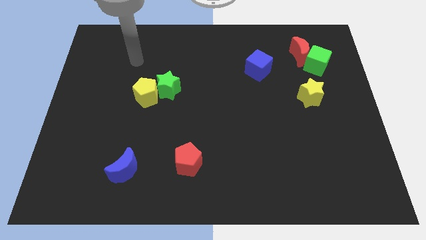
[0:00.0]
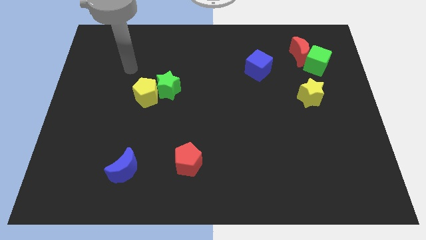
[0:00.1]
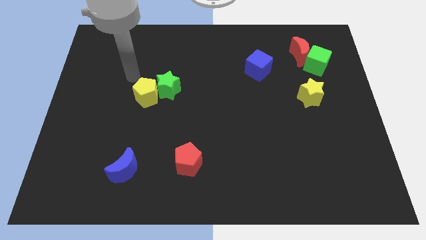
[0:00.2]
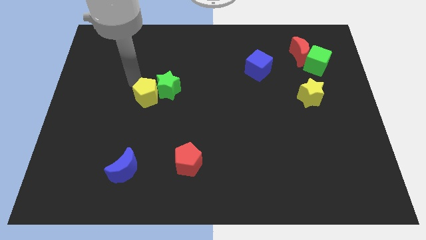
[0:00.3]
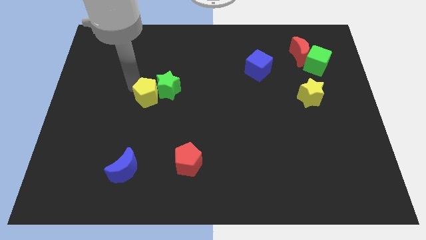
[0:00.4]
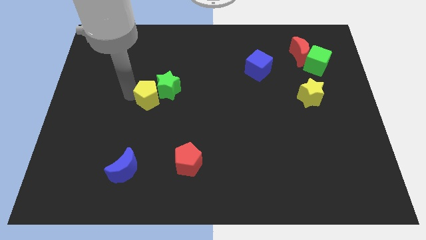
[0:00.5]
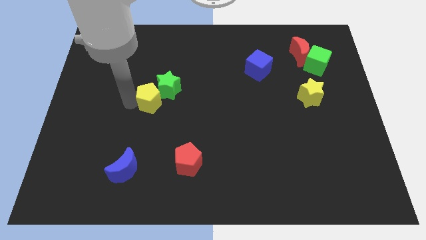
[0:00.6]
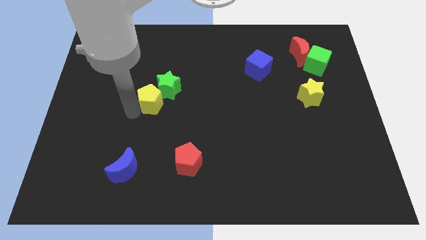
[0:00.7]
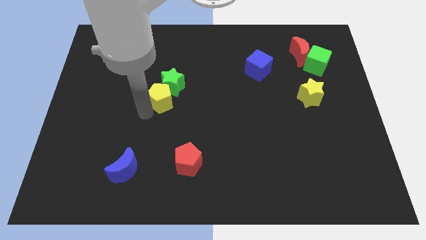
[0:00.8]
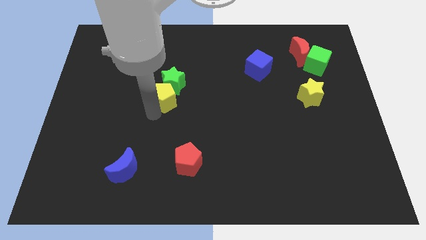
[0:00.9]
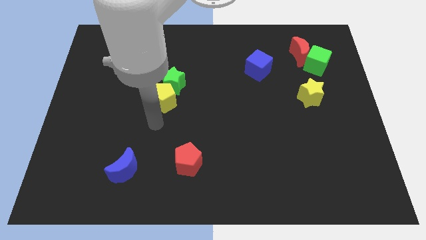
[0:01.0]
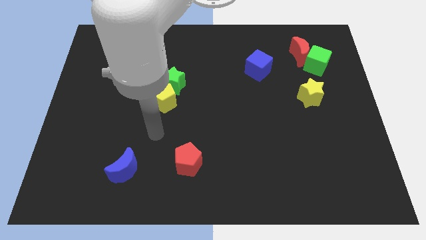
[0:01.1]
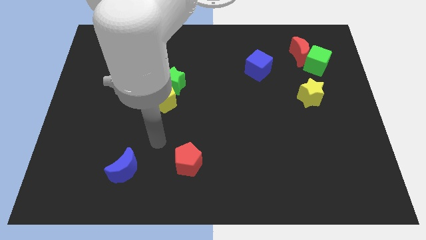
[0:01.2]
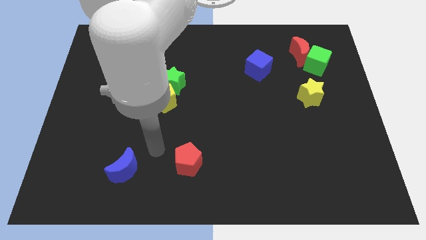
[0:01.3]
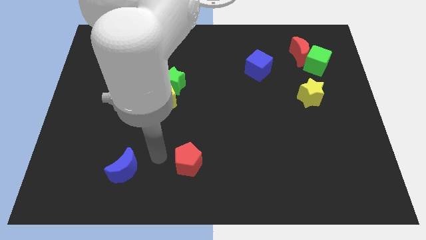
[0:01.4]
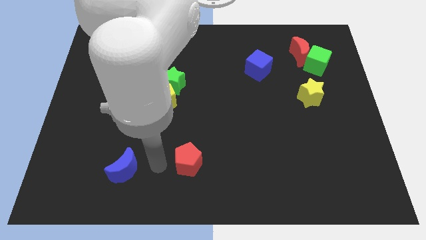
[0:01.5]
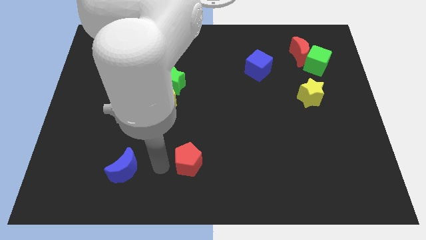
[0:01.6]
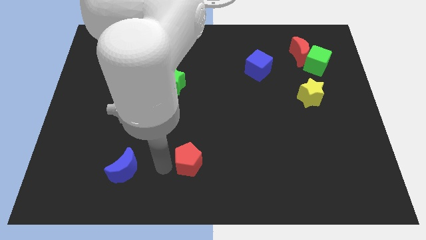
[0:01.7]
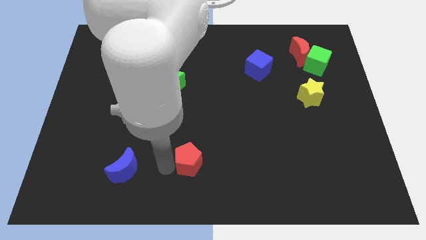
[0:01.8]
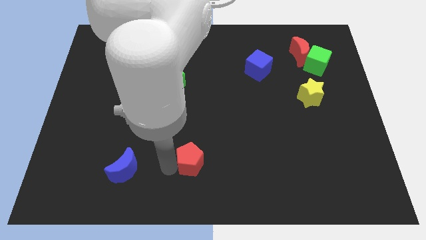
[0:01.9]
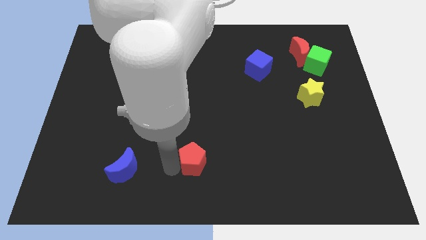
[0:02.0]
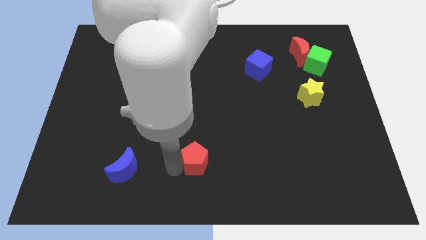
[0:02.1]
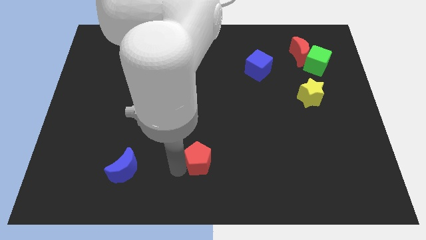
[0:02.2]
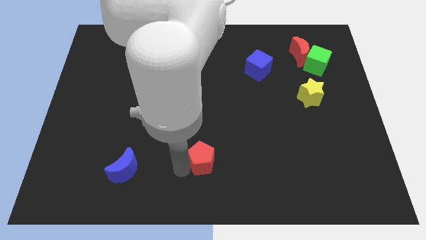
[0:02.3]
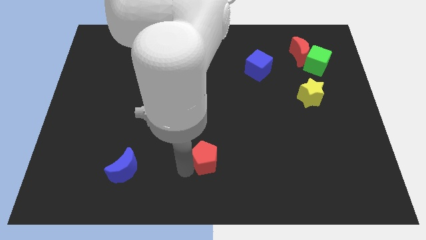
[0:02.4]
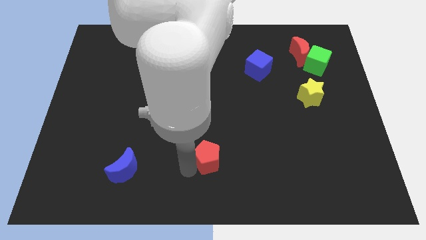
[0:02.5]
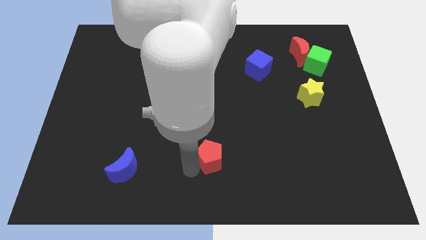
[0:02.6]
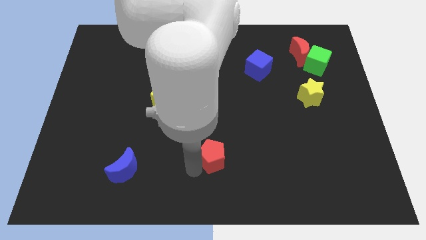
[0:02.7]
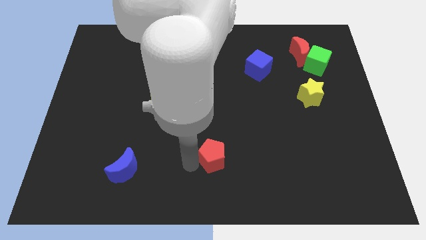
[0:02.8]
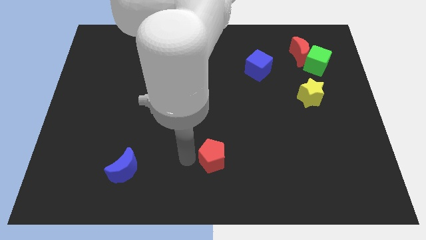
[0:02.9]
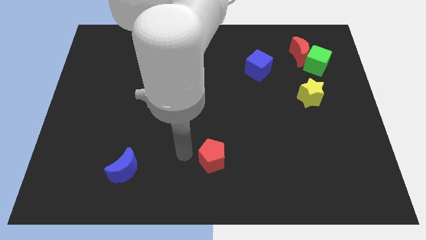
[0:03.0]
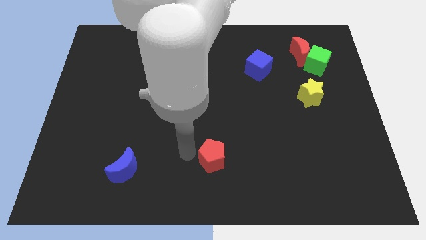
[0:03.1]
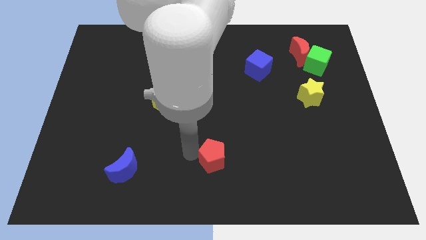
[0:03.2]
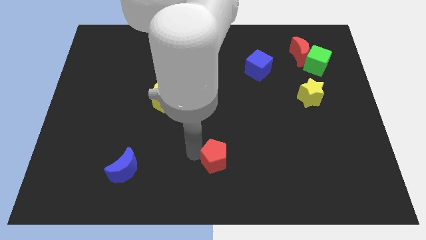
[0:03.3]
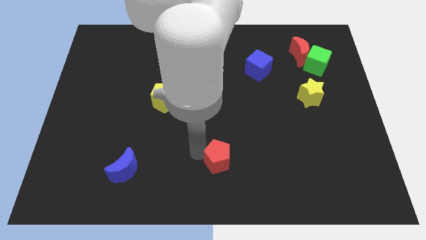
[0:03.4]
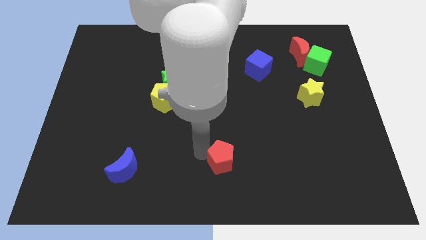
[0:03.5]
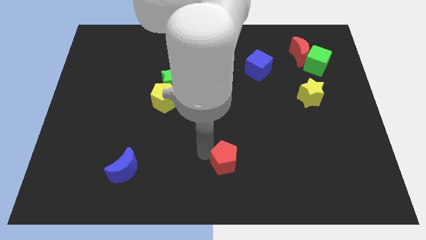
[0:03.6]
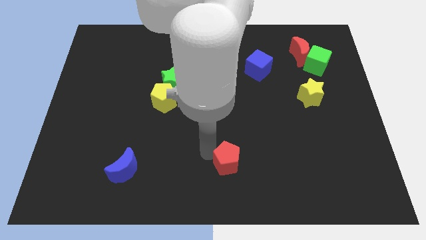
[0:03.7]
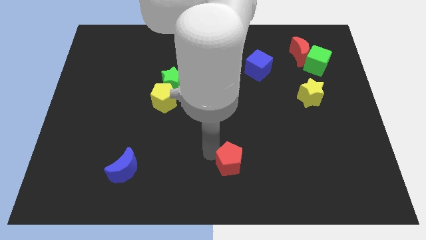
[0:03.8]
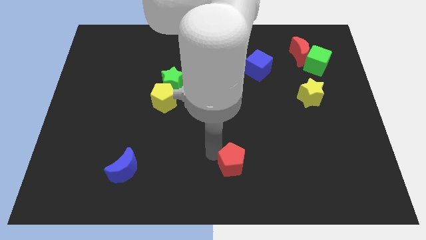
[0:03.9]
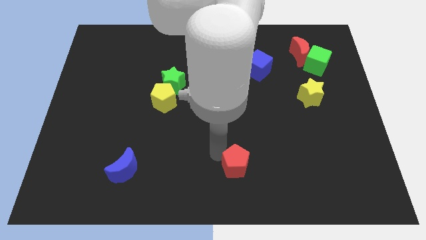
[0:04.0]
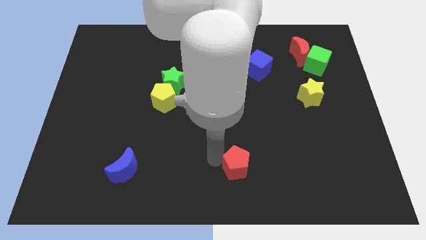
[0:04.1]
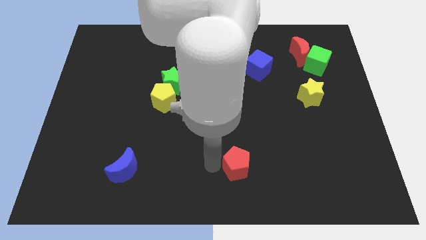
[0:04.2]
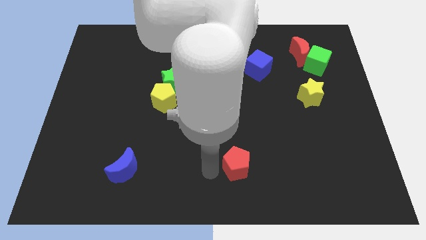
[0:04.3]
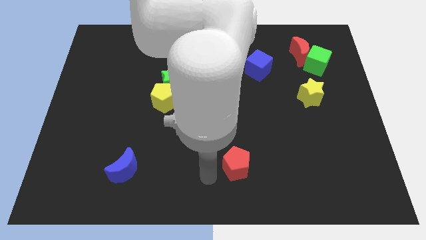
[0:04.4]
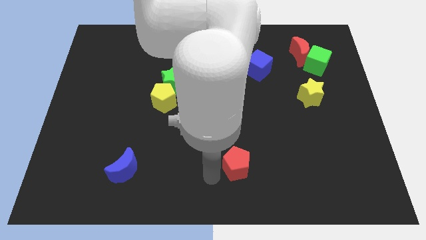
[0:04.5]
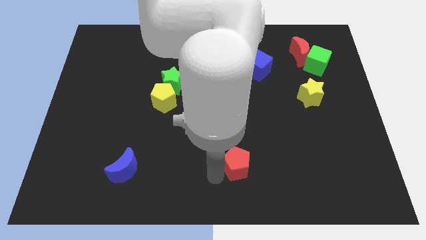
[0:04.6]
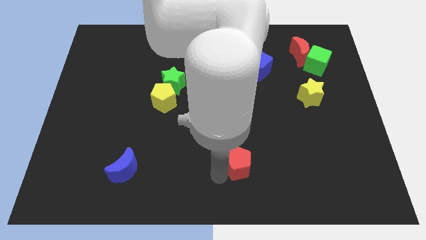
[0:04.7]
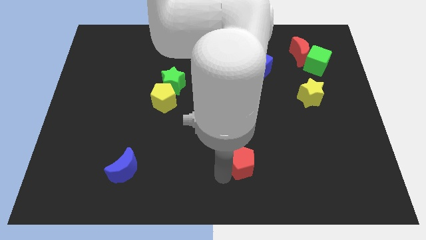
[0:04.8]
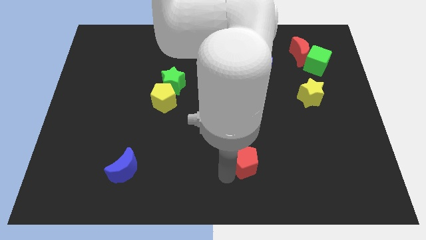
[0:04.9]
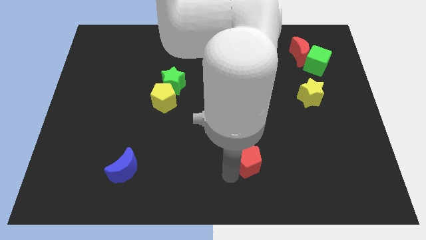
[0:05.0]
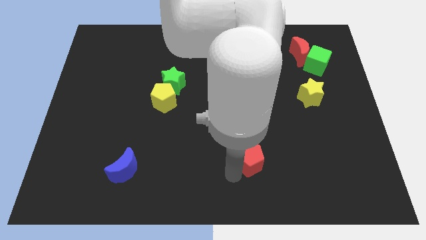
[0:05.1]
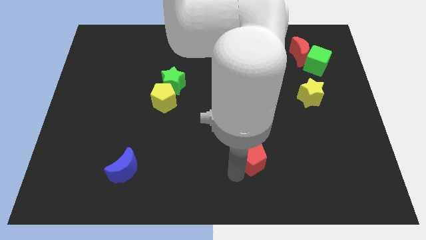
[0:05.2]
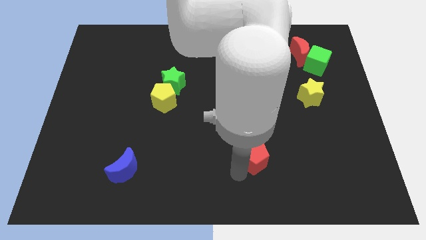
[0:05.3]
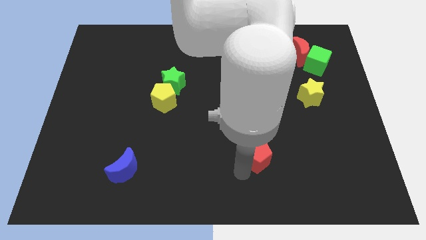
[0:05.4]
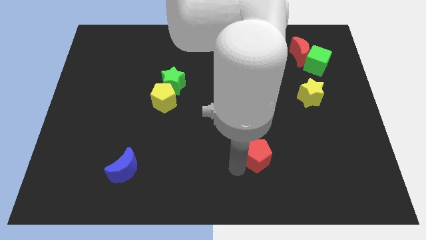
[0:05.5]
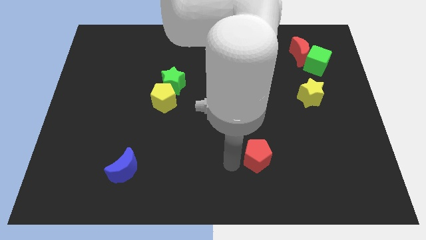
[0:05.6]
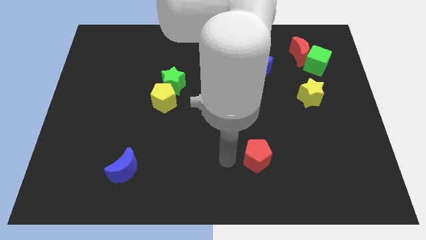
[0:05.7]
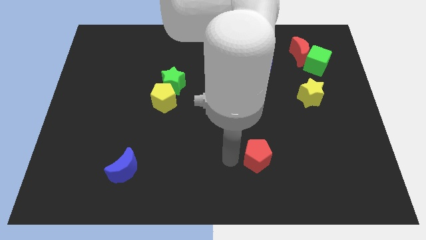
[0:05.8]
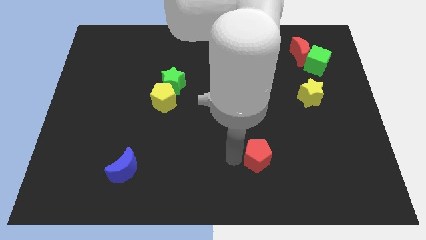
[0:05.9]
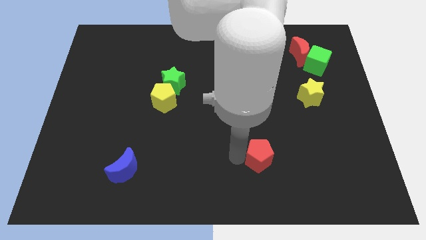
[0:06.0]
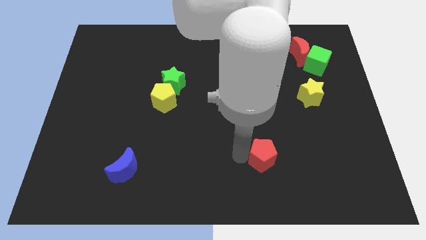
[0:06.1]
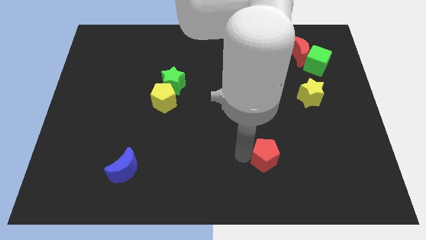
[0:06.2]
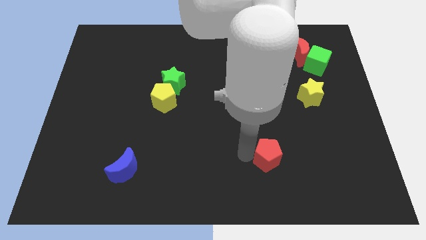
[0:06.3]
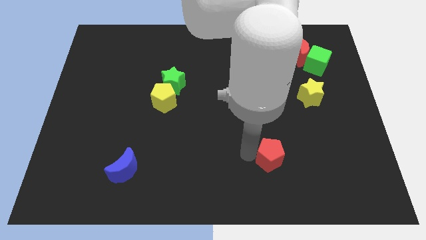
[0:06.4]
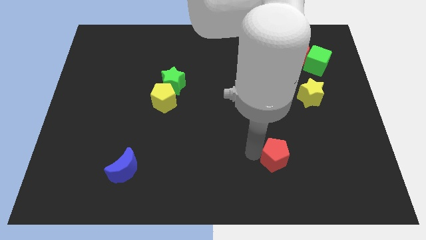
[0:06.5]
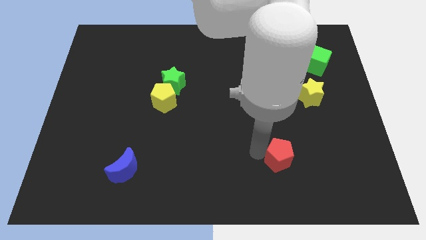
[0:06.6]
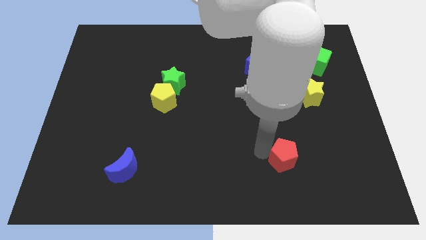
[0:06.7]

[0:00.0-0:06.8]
push the red pentagon right

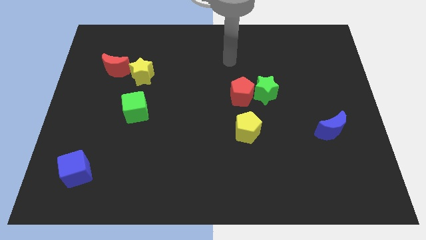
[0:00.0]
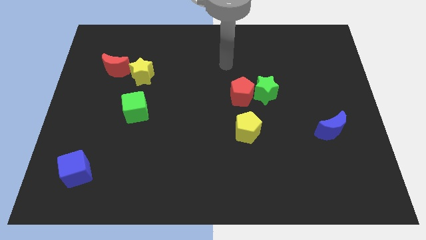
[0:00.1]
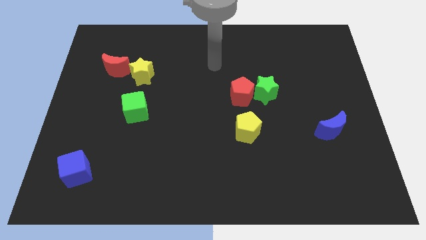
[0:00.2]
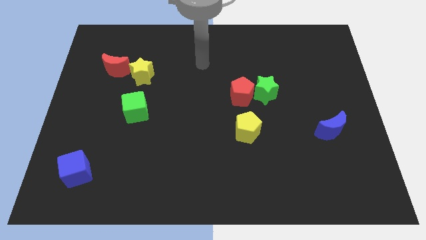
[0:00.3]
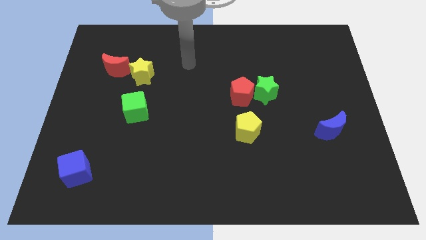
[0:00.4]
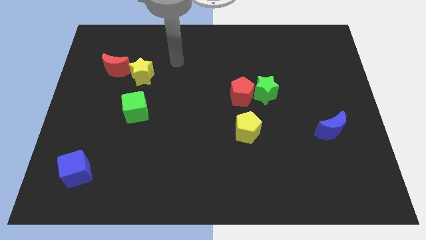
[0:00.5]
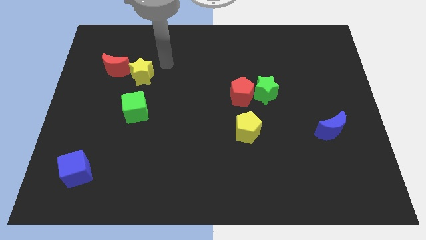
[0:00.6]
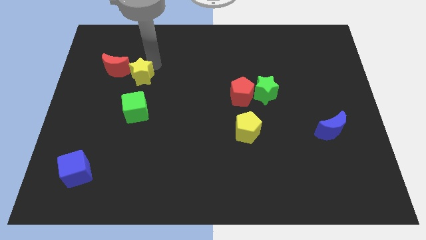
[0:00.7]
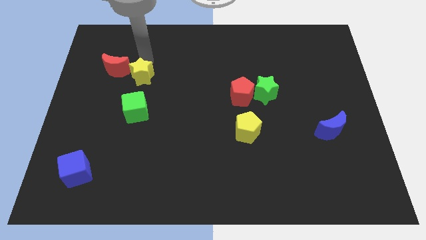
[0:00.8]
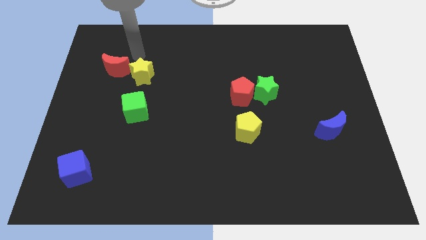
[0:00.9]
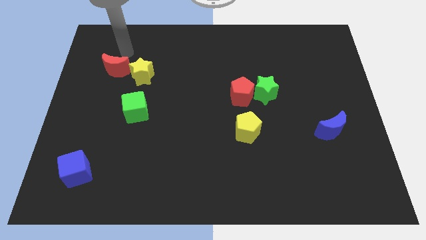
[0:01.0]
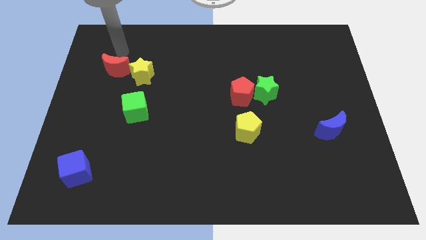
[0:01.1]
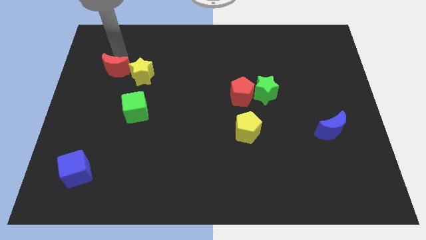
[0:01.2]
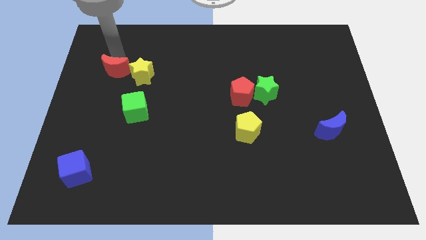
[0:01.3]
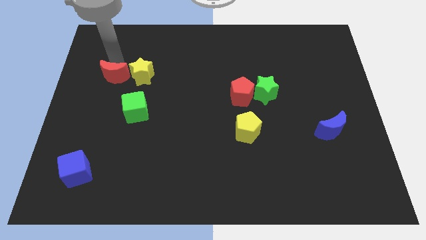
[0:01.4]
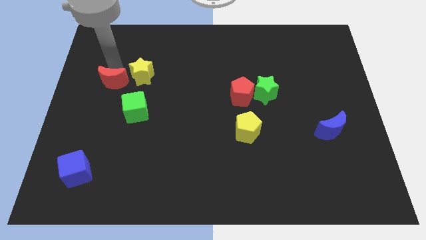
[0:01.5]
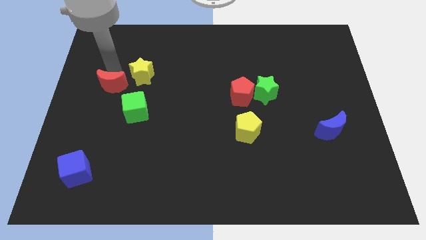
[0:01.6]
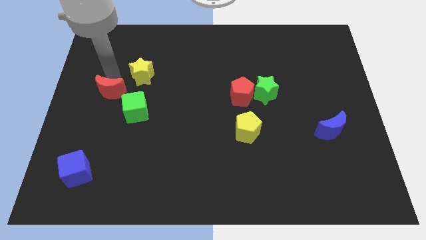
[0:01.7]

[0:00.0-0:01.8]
push the red moon down somewhat
